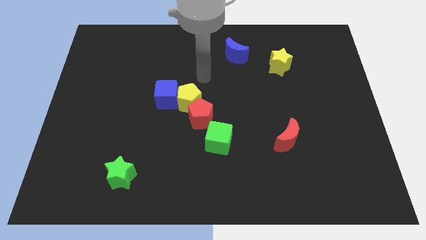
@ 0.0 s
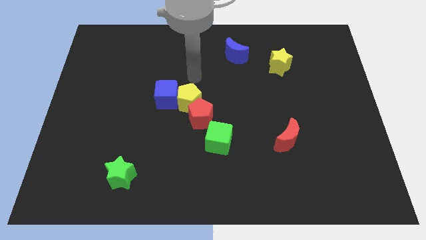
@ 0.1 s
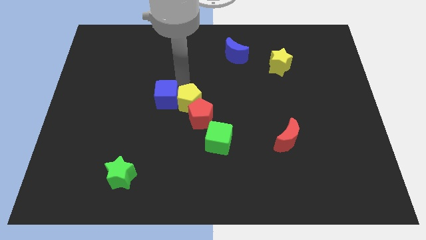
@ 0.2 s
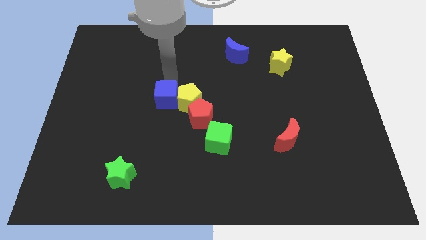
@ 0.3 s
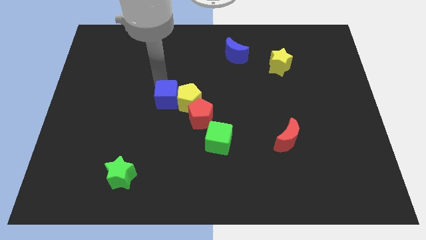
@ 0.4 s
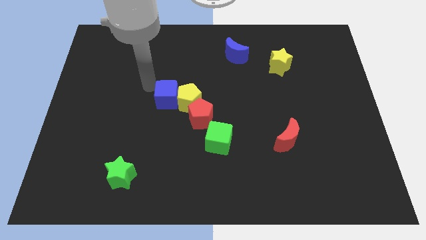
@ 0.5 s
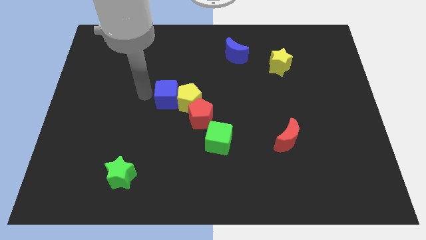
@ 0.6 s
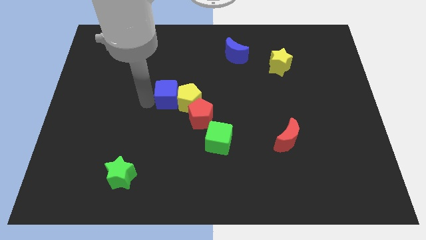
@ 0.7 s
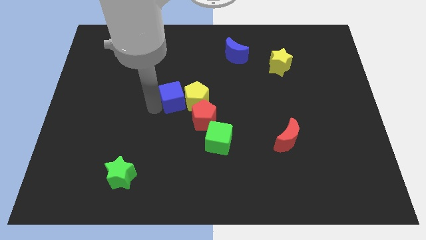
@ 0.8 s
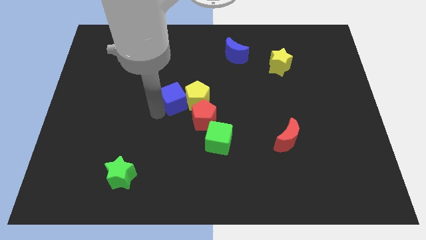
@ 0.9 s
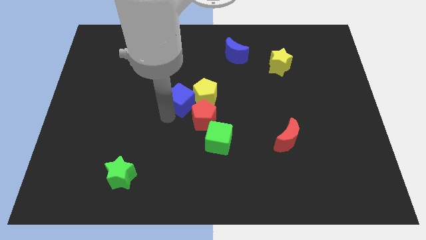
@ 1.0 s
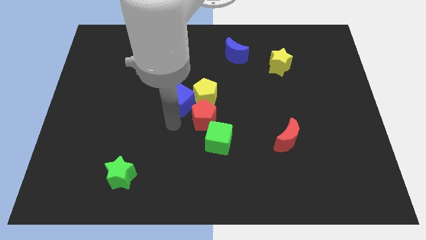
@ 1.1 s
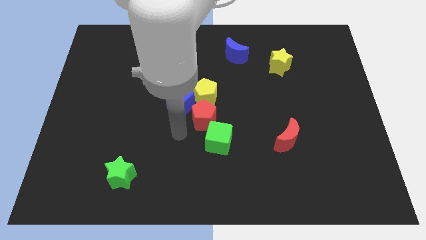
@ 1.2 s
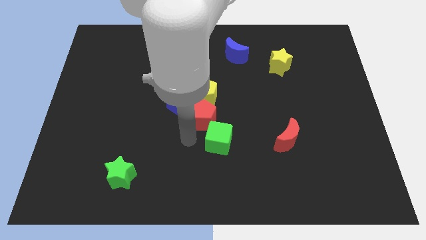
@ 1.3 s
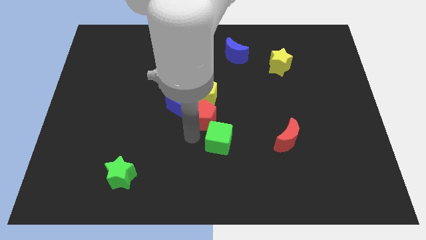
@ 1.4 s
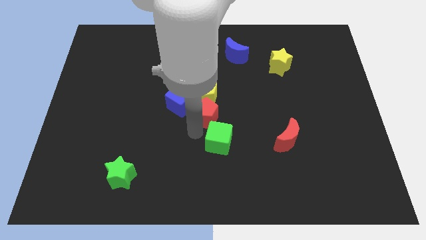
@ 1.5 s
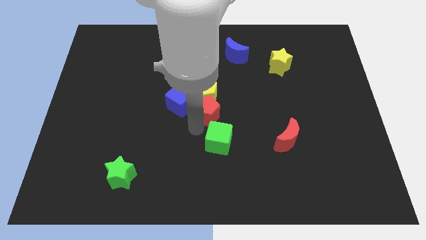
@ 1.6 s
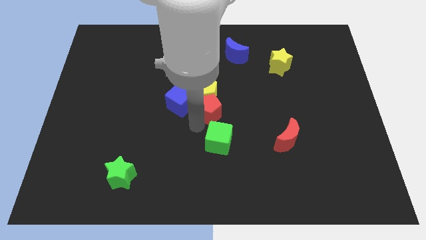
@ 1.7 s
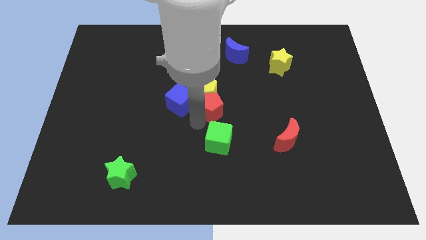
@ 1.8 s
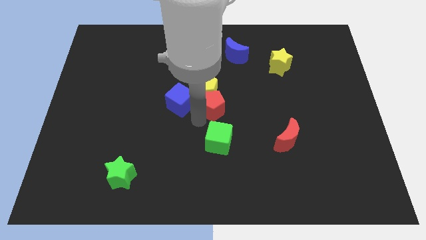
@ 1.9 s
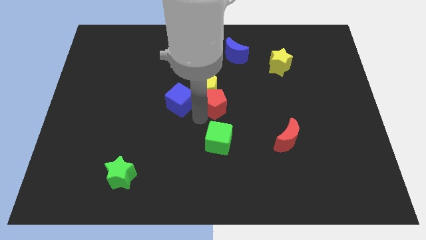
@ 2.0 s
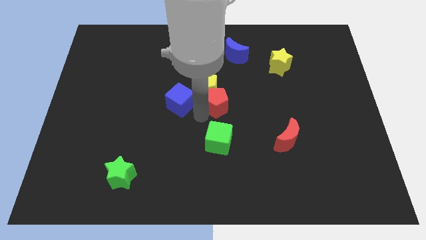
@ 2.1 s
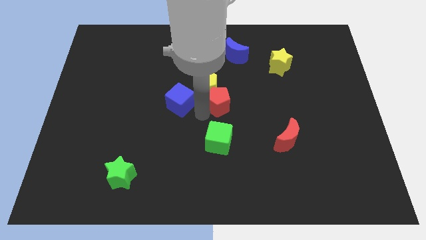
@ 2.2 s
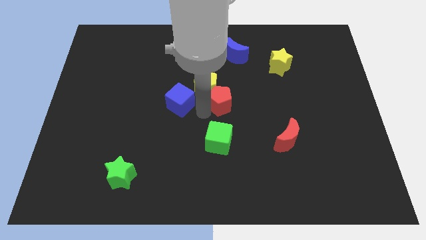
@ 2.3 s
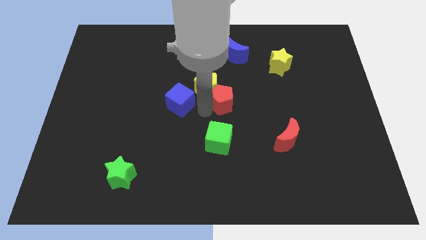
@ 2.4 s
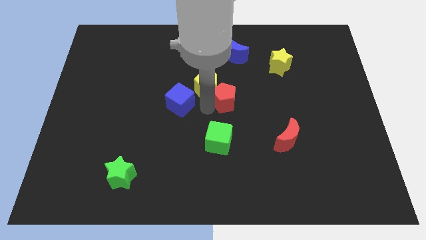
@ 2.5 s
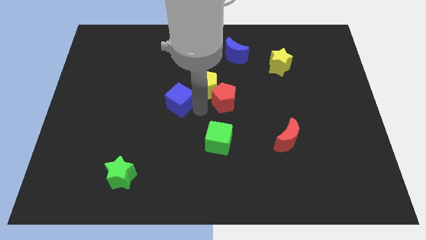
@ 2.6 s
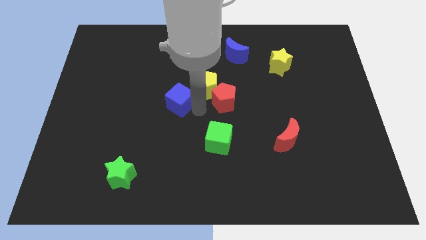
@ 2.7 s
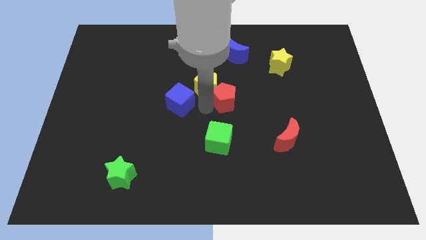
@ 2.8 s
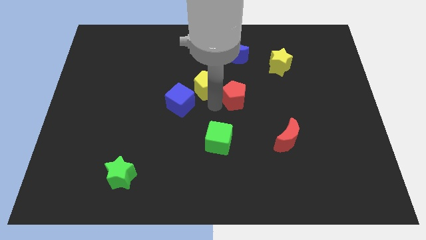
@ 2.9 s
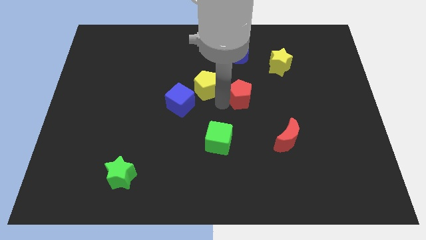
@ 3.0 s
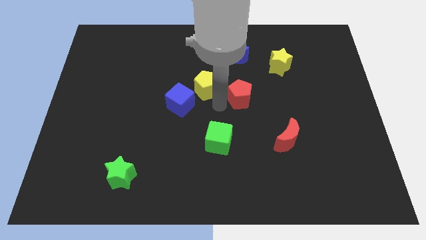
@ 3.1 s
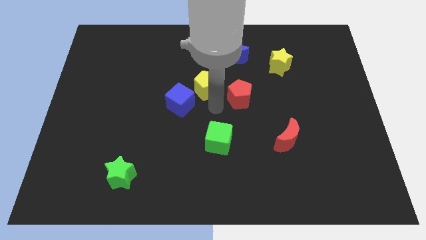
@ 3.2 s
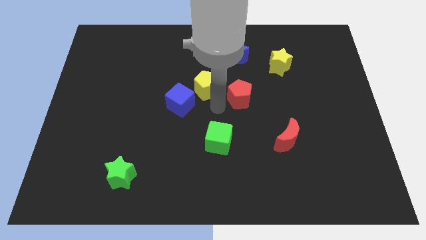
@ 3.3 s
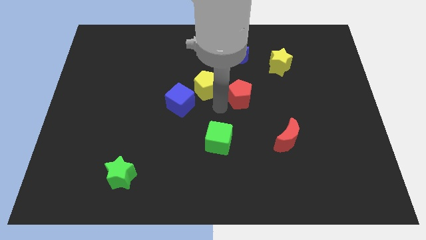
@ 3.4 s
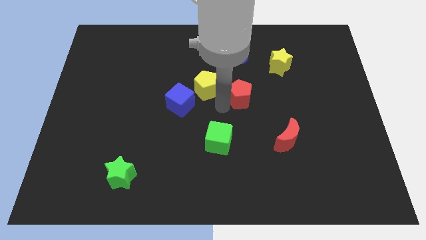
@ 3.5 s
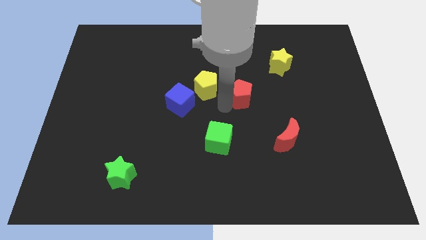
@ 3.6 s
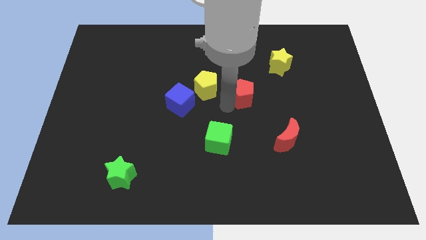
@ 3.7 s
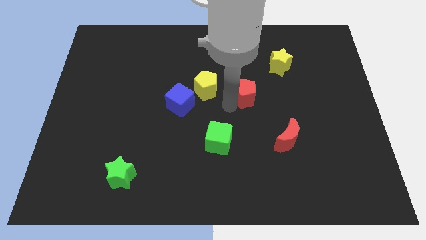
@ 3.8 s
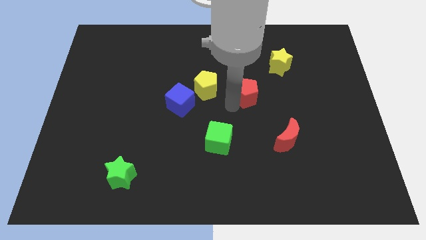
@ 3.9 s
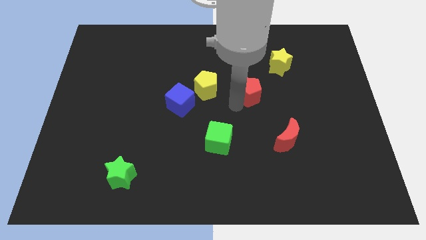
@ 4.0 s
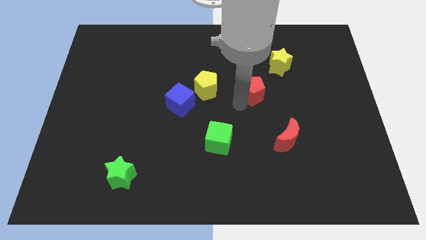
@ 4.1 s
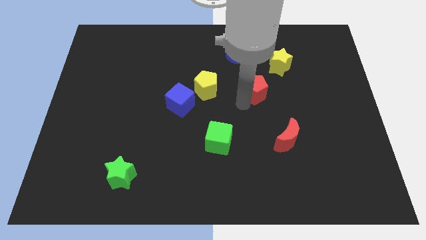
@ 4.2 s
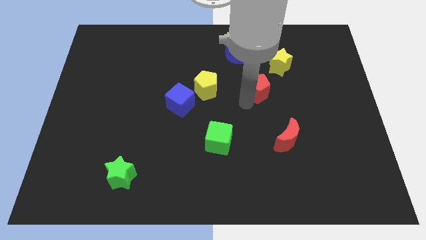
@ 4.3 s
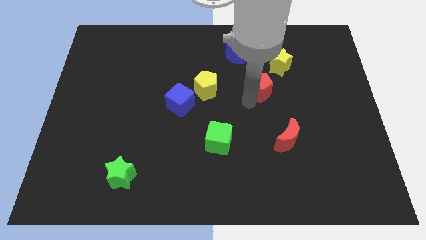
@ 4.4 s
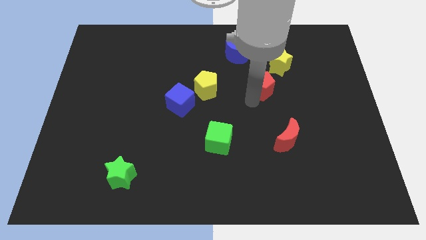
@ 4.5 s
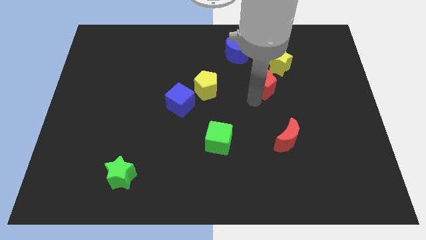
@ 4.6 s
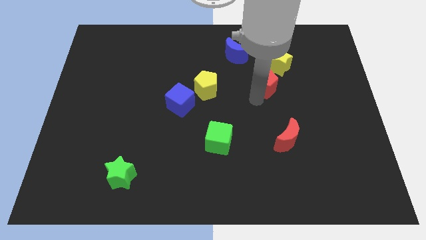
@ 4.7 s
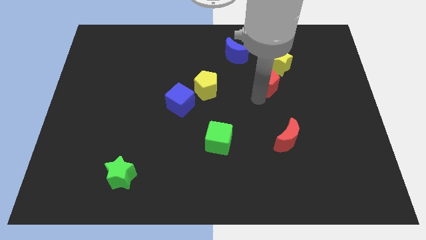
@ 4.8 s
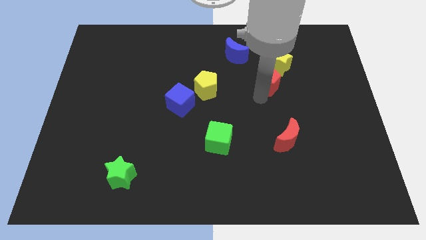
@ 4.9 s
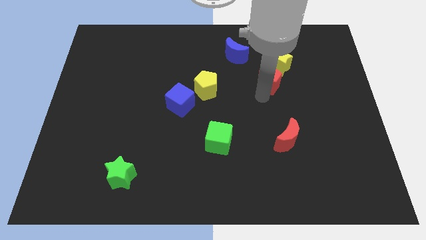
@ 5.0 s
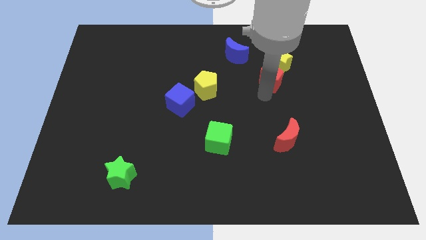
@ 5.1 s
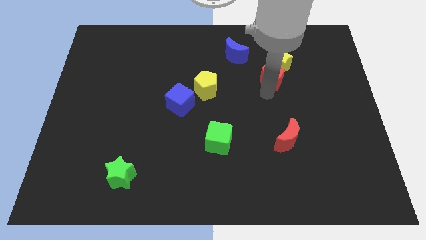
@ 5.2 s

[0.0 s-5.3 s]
put the red pentagon towards the yellow star

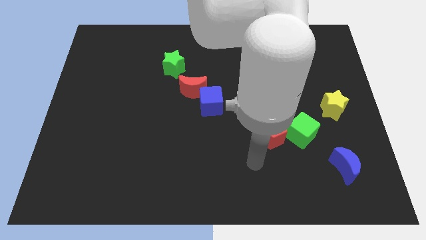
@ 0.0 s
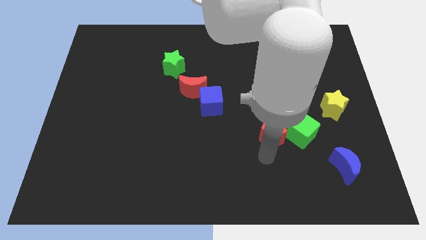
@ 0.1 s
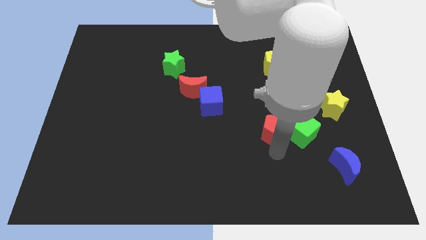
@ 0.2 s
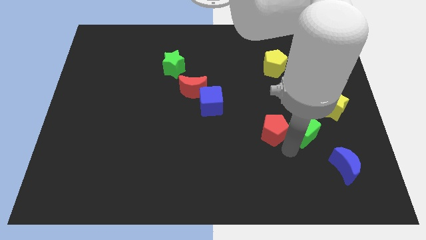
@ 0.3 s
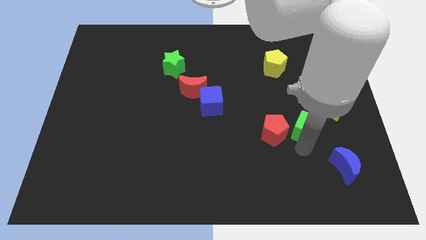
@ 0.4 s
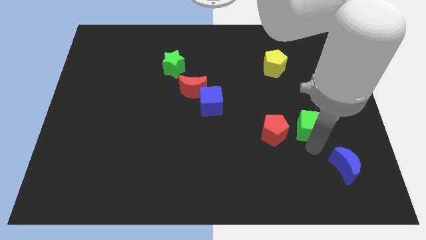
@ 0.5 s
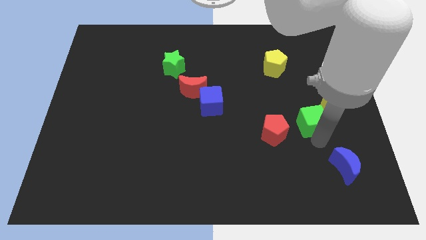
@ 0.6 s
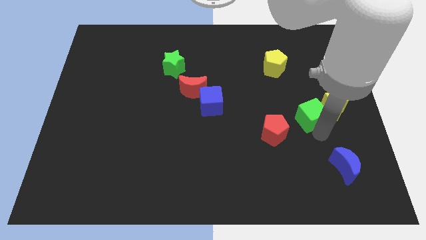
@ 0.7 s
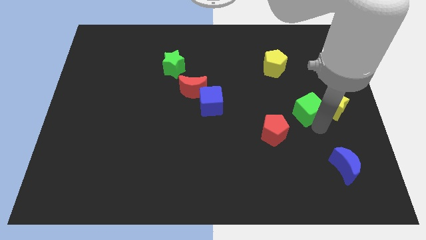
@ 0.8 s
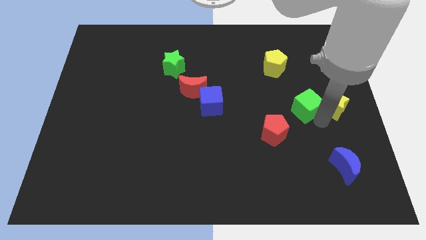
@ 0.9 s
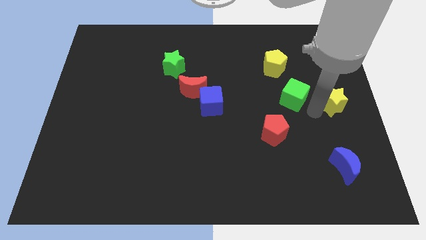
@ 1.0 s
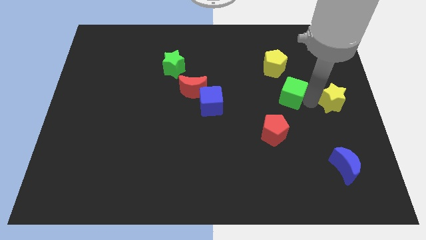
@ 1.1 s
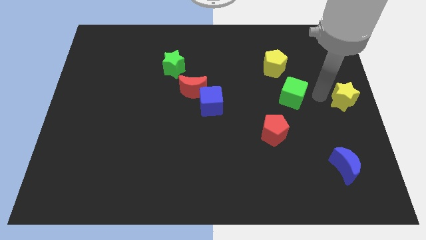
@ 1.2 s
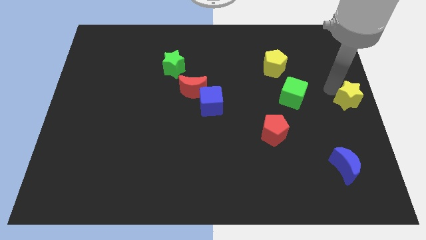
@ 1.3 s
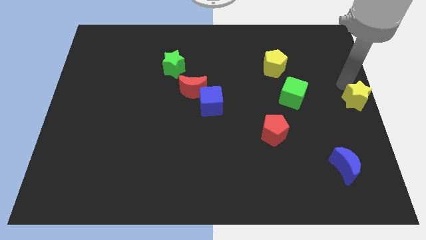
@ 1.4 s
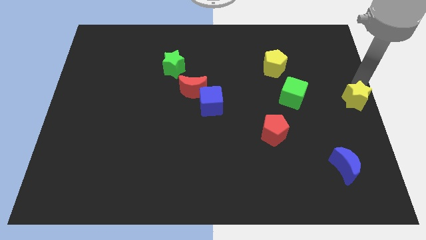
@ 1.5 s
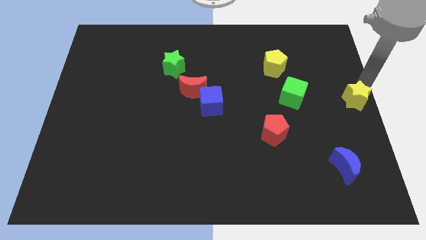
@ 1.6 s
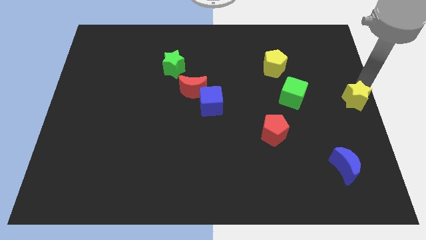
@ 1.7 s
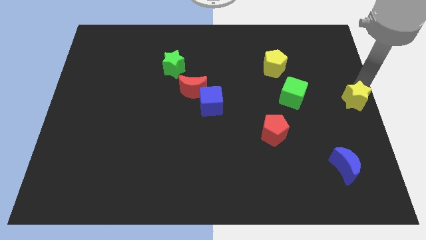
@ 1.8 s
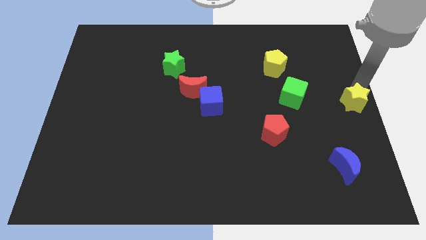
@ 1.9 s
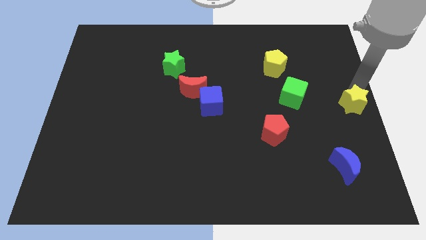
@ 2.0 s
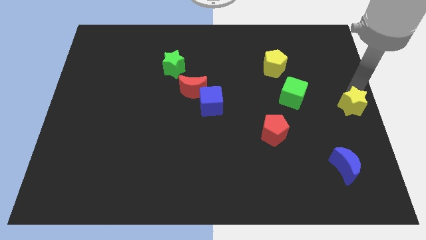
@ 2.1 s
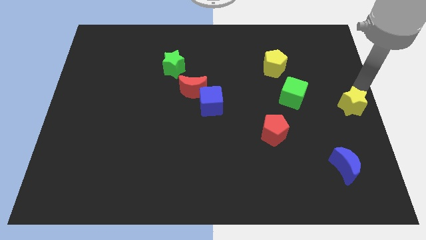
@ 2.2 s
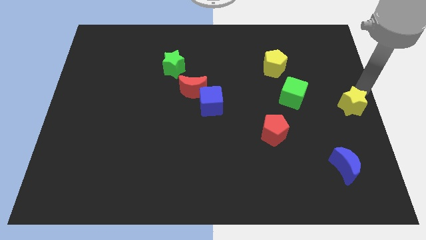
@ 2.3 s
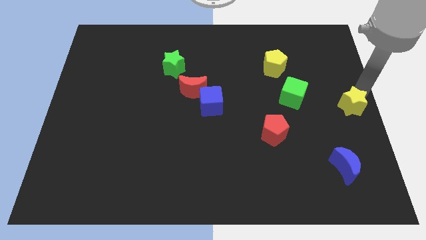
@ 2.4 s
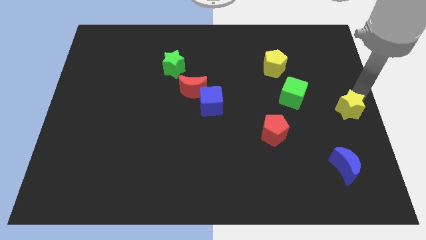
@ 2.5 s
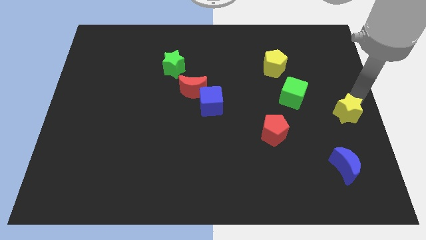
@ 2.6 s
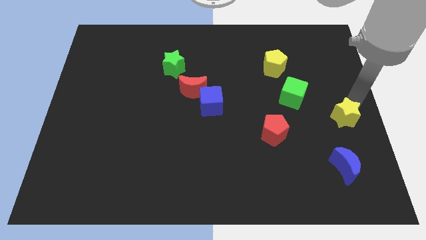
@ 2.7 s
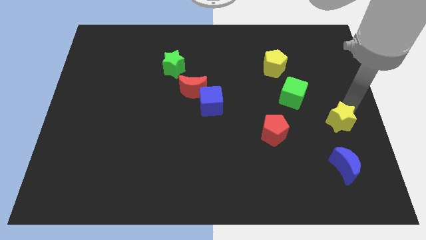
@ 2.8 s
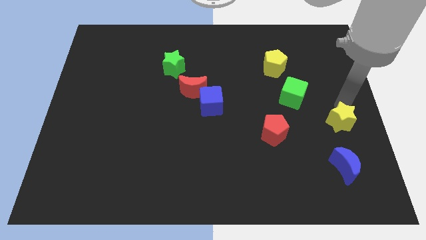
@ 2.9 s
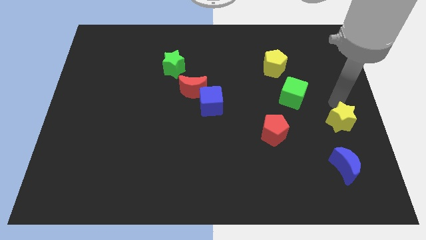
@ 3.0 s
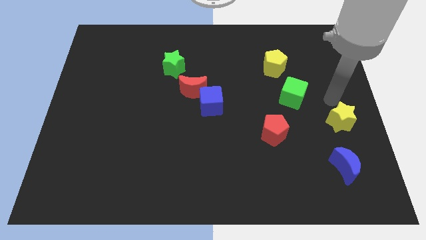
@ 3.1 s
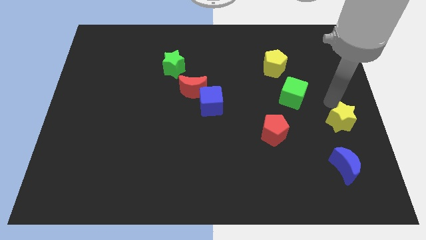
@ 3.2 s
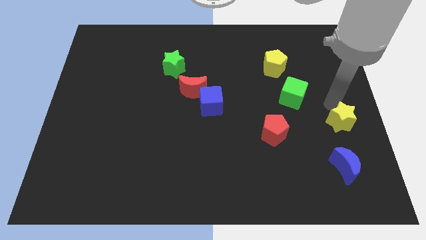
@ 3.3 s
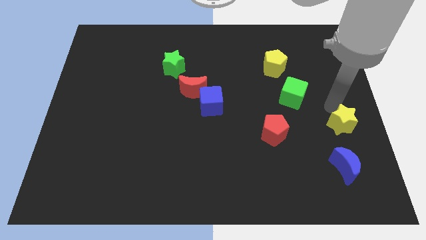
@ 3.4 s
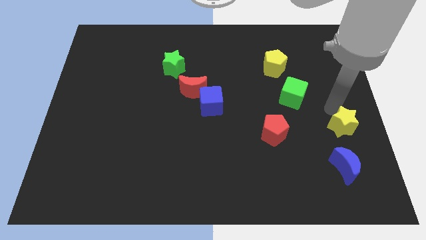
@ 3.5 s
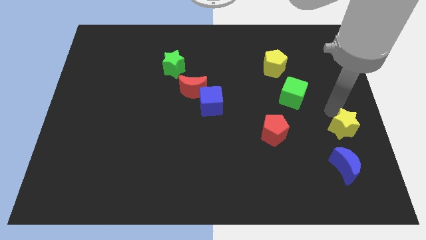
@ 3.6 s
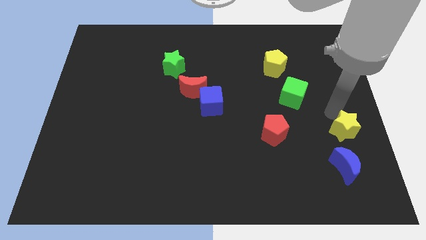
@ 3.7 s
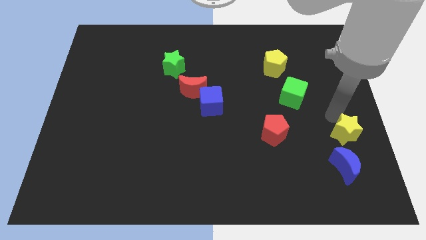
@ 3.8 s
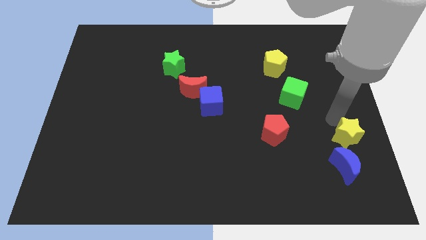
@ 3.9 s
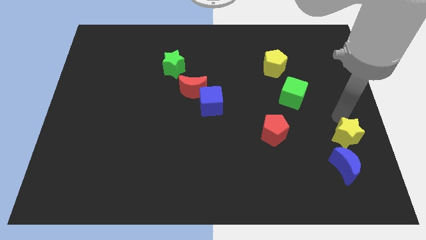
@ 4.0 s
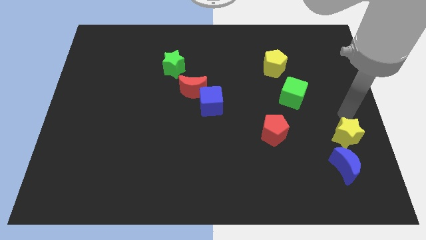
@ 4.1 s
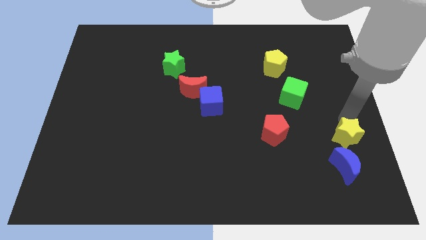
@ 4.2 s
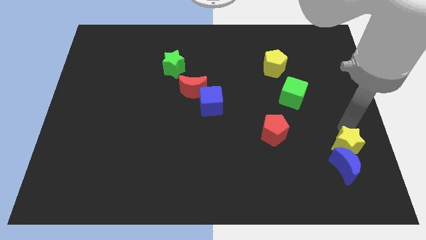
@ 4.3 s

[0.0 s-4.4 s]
push the yellow star close to the blue moon
